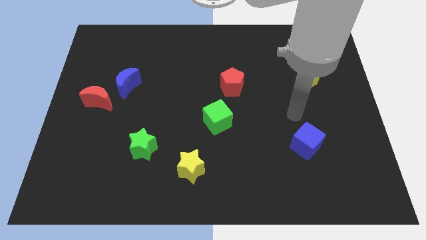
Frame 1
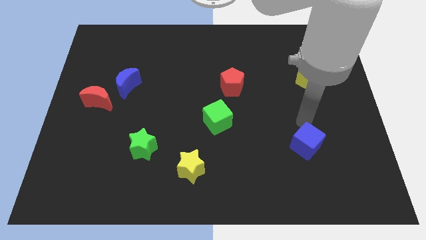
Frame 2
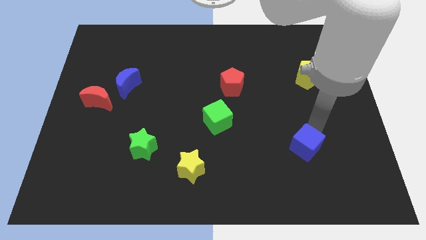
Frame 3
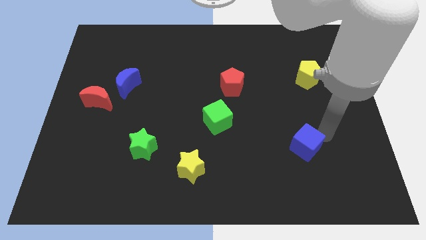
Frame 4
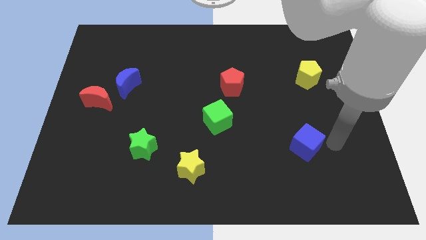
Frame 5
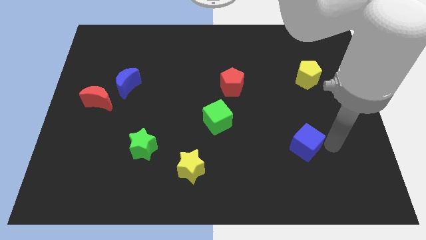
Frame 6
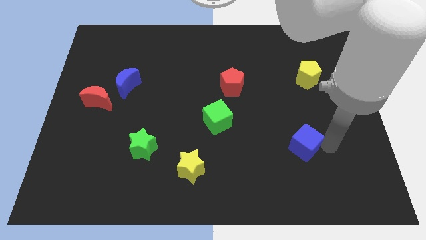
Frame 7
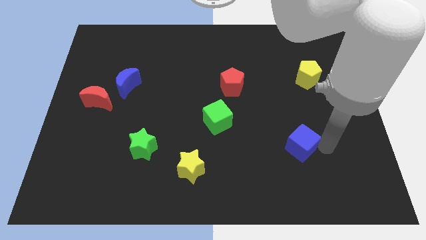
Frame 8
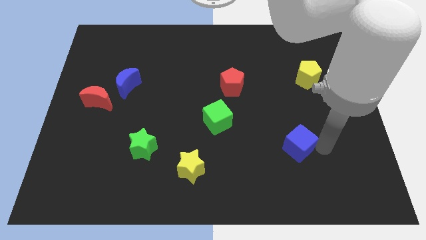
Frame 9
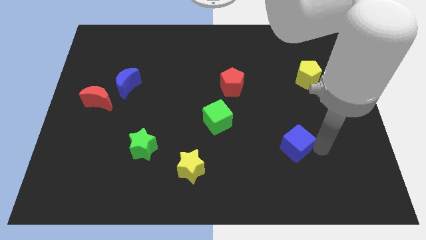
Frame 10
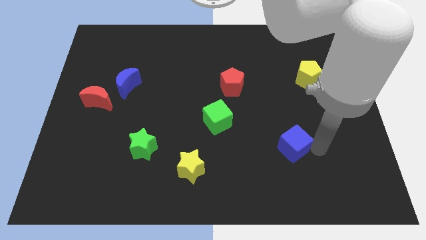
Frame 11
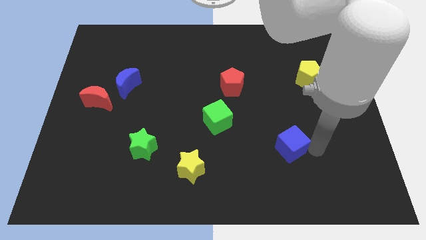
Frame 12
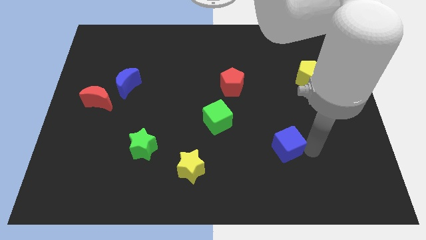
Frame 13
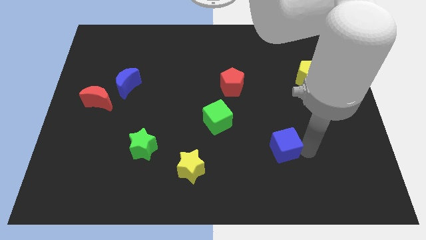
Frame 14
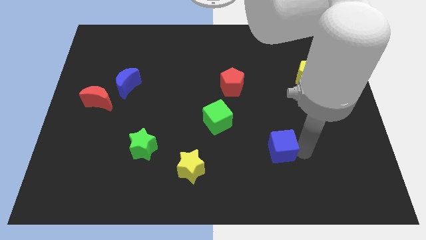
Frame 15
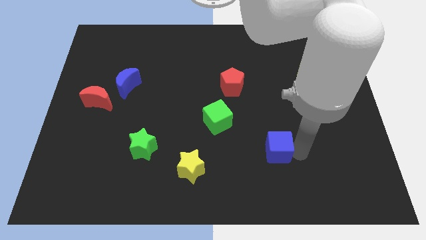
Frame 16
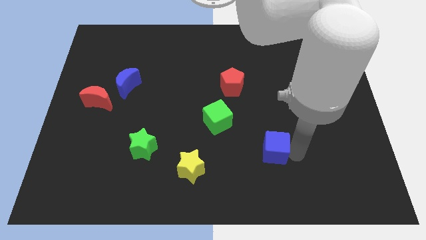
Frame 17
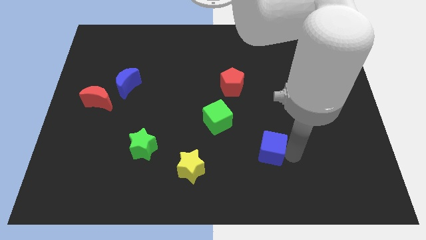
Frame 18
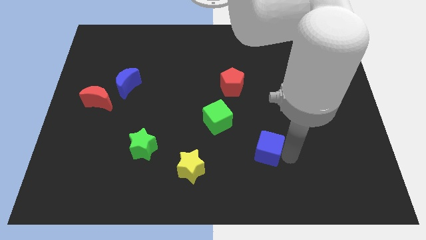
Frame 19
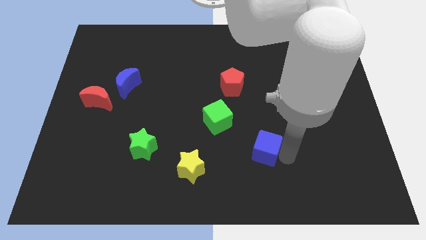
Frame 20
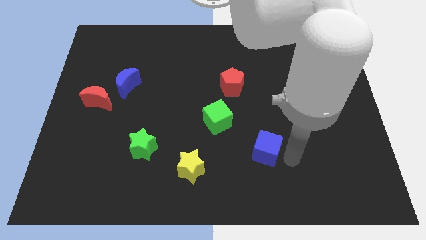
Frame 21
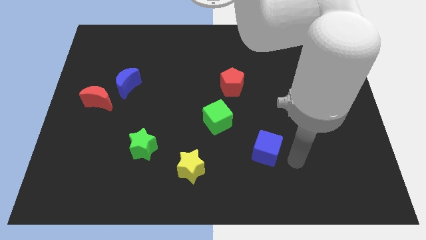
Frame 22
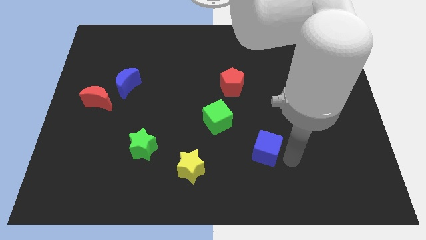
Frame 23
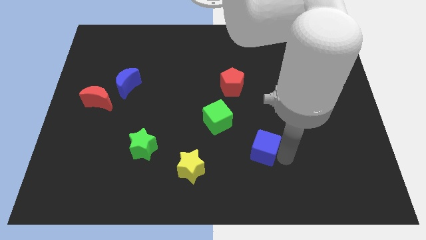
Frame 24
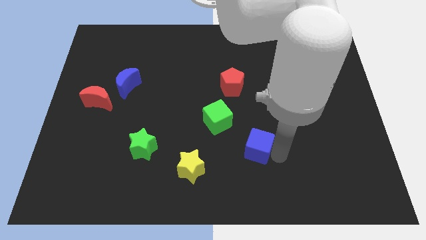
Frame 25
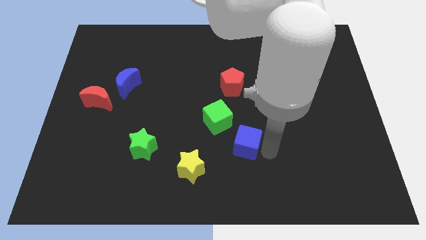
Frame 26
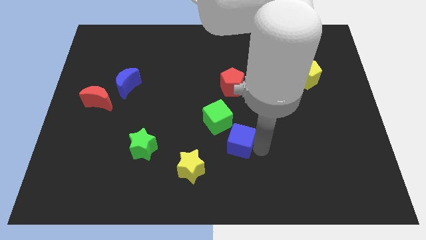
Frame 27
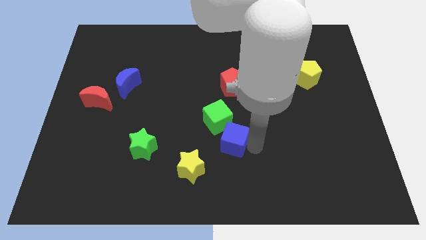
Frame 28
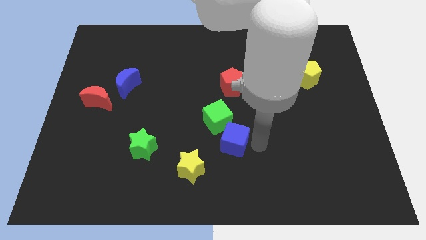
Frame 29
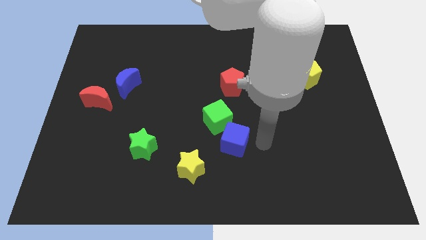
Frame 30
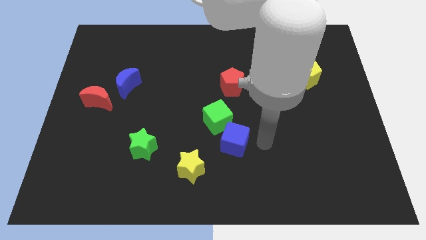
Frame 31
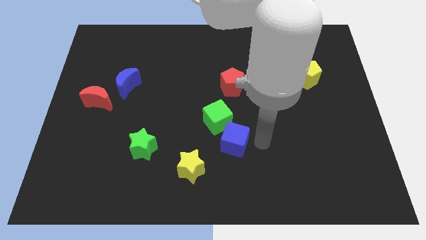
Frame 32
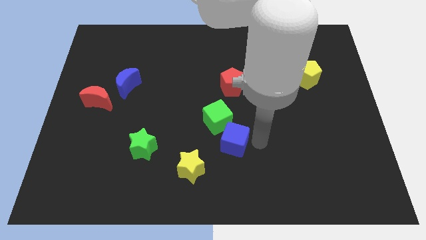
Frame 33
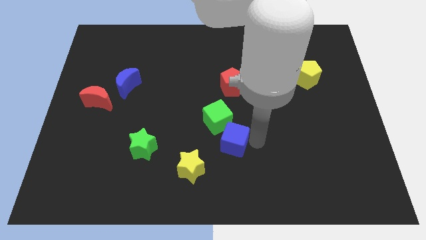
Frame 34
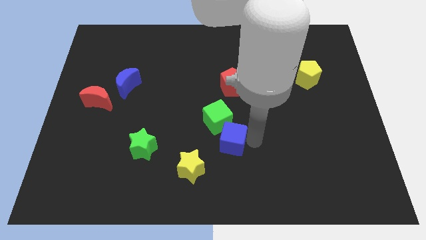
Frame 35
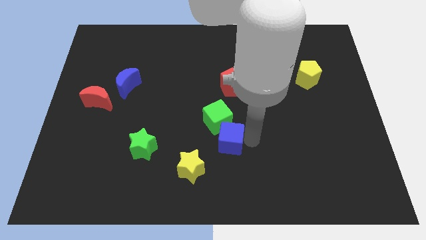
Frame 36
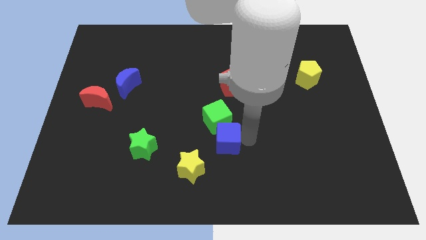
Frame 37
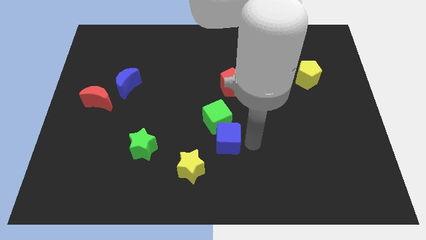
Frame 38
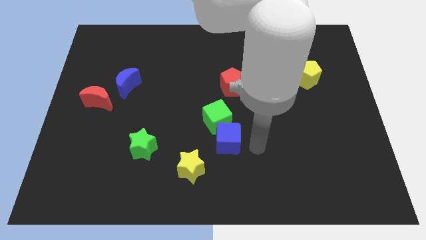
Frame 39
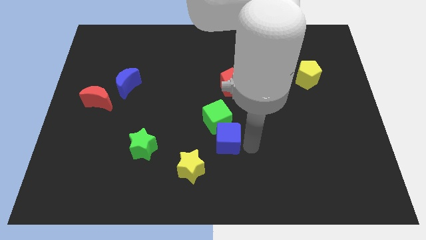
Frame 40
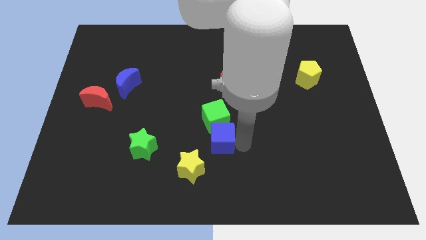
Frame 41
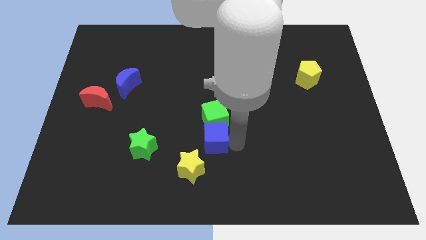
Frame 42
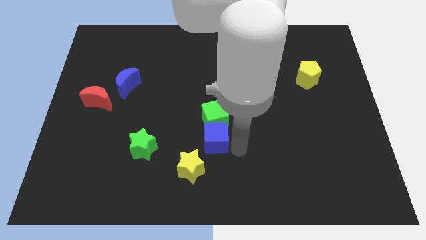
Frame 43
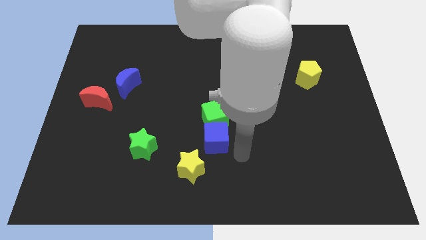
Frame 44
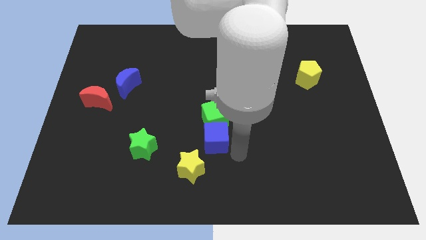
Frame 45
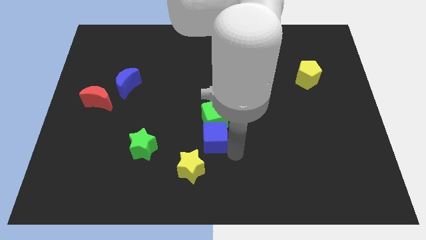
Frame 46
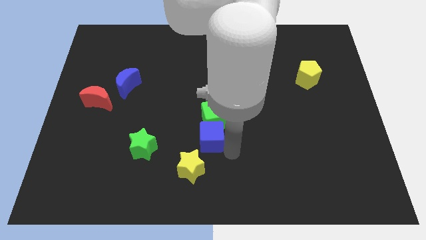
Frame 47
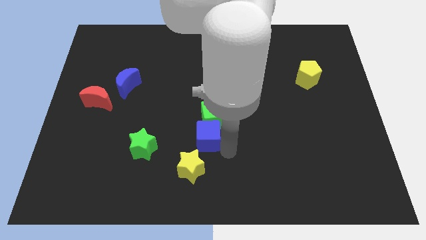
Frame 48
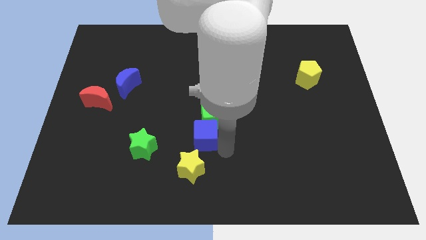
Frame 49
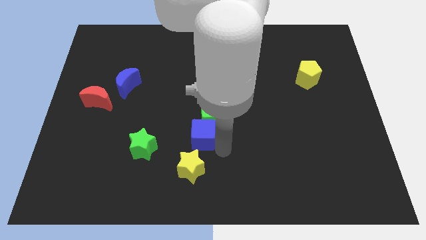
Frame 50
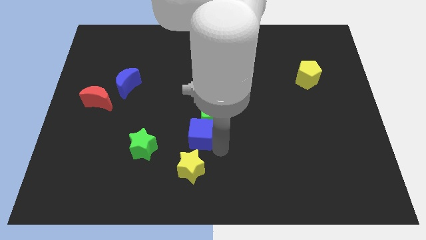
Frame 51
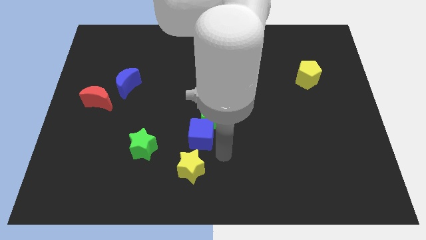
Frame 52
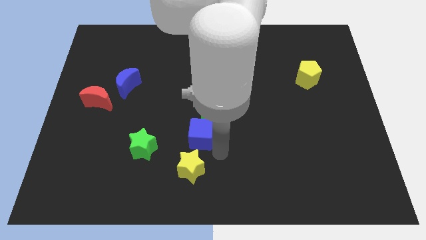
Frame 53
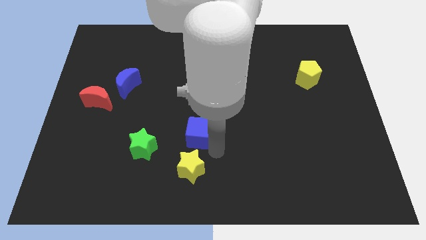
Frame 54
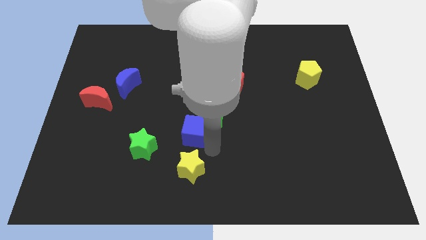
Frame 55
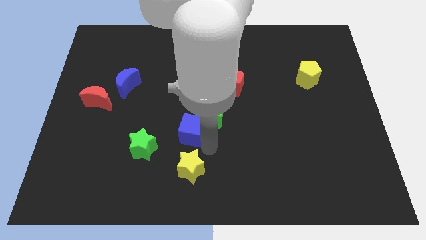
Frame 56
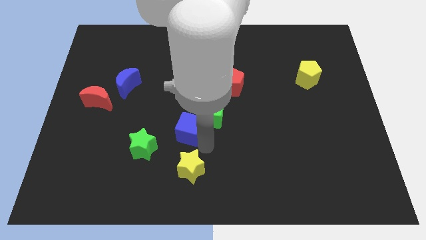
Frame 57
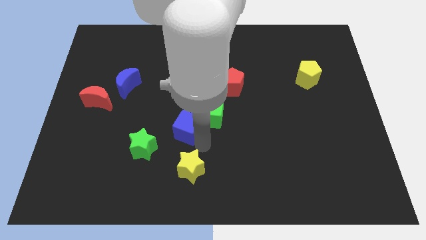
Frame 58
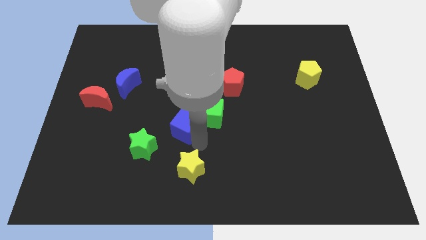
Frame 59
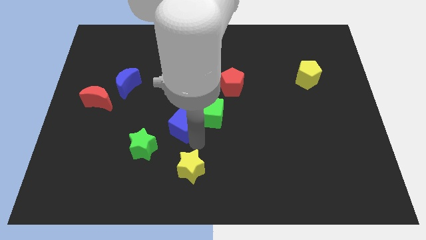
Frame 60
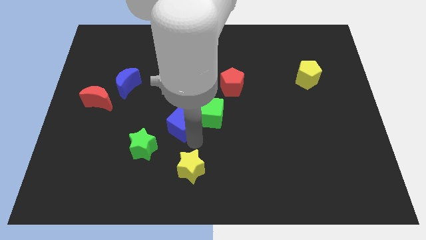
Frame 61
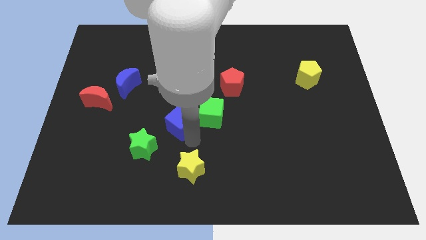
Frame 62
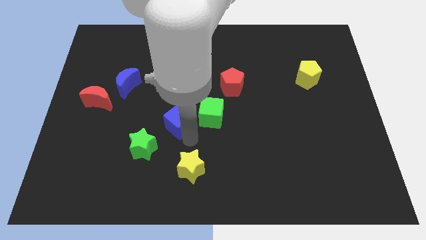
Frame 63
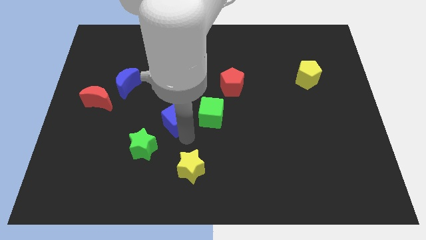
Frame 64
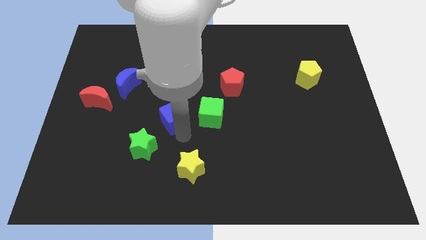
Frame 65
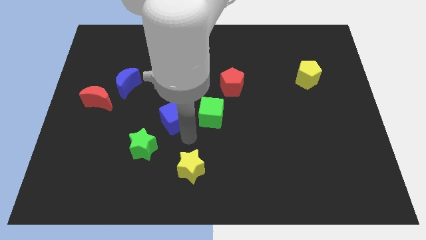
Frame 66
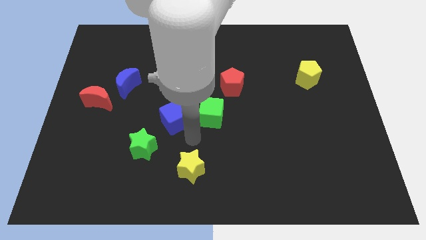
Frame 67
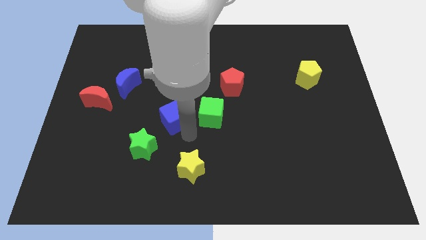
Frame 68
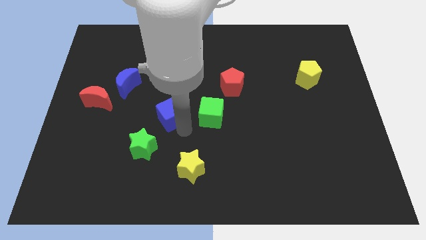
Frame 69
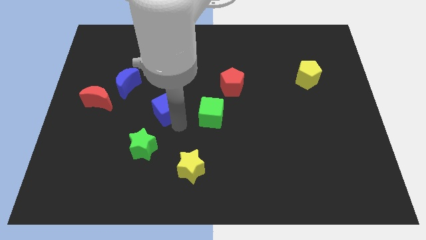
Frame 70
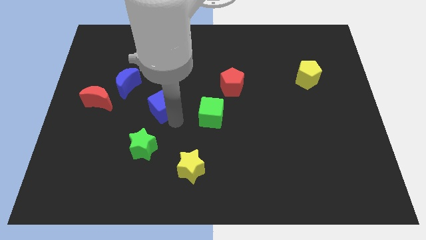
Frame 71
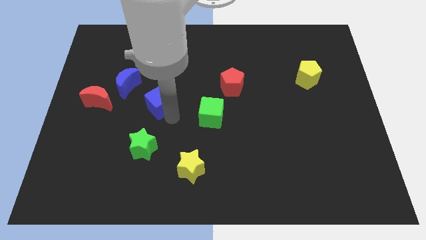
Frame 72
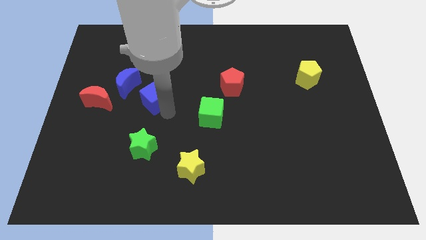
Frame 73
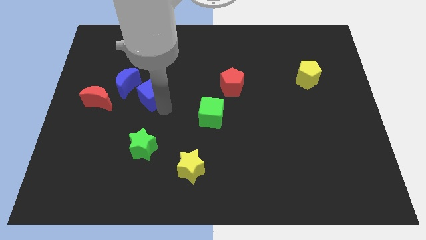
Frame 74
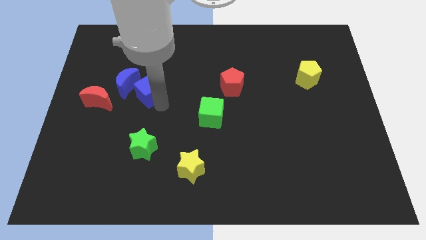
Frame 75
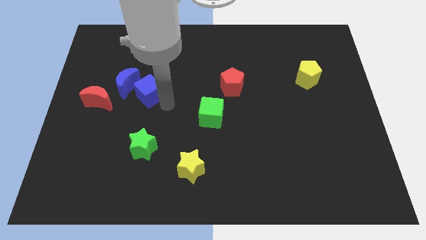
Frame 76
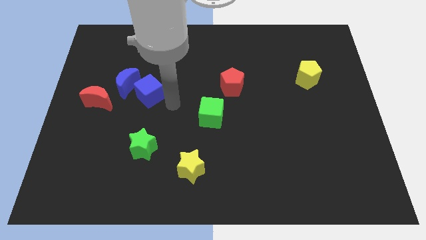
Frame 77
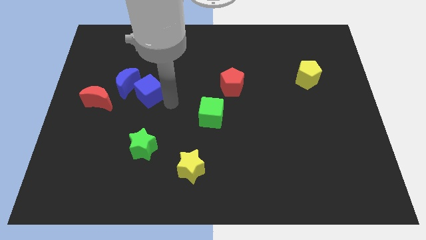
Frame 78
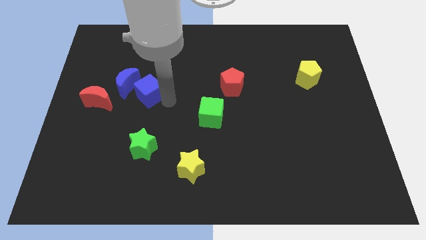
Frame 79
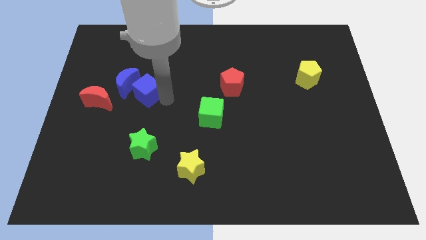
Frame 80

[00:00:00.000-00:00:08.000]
push the blue cube next to the blue moon
